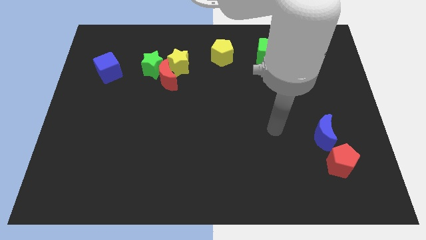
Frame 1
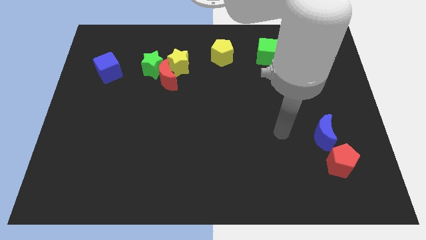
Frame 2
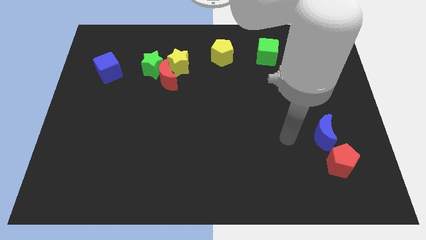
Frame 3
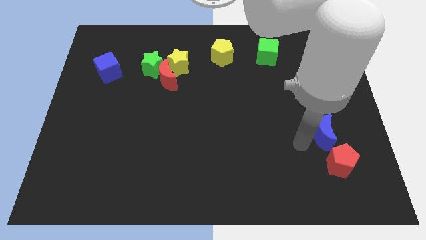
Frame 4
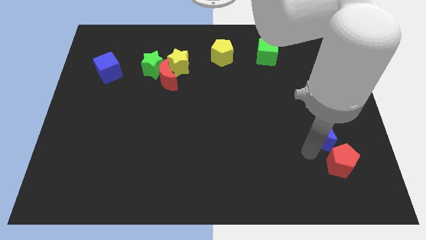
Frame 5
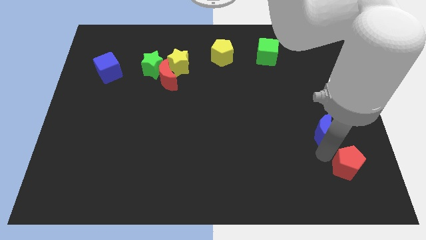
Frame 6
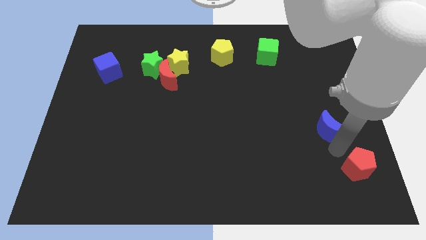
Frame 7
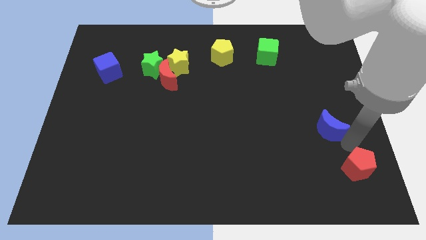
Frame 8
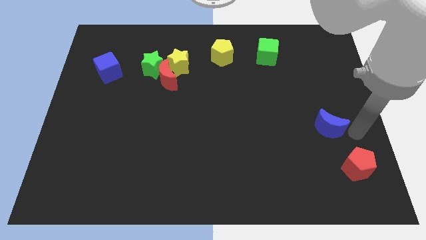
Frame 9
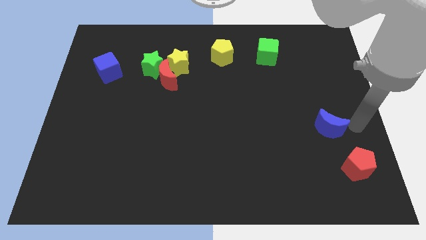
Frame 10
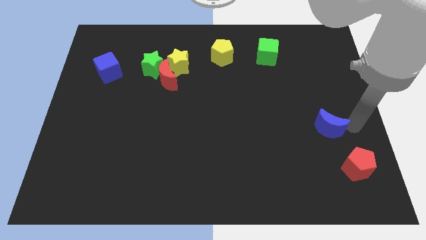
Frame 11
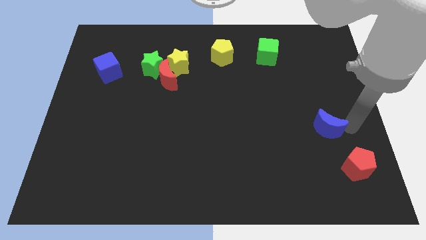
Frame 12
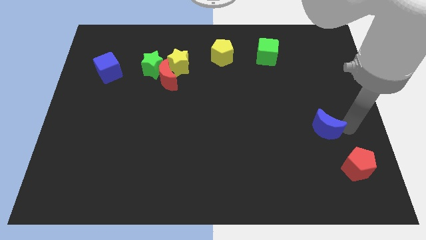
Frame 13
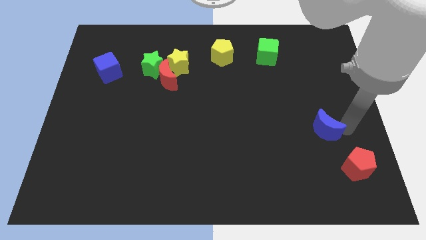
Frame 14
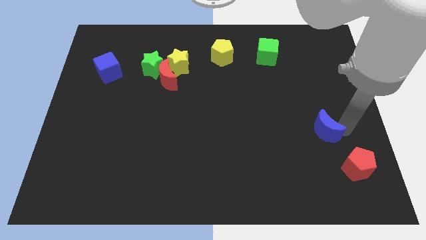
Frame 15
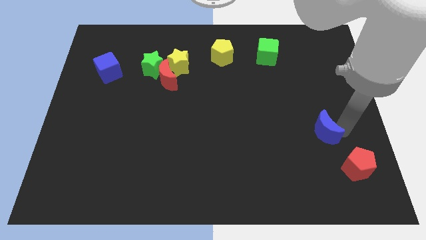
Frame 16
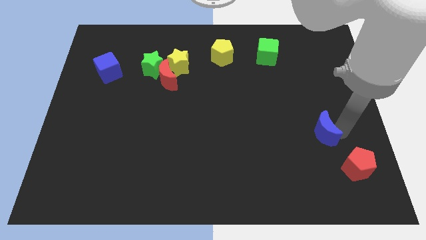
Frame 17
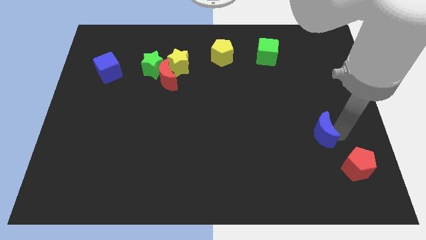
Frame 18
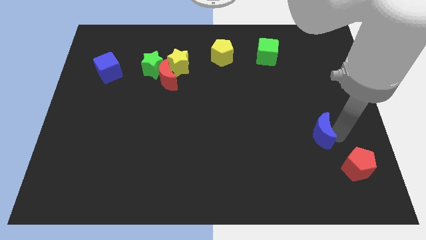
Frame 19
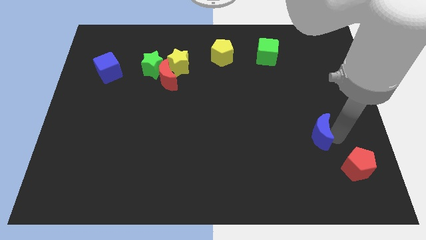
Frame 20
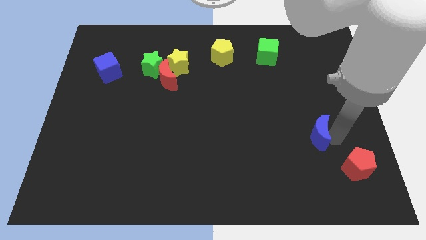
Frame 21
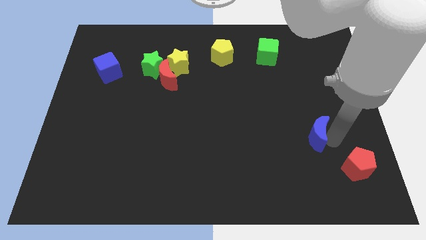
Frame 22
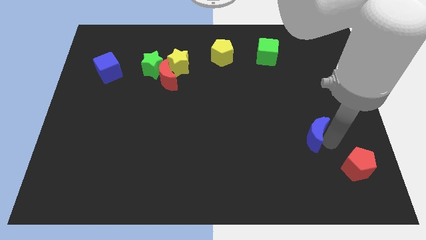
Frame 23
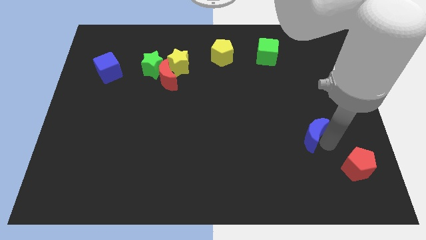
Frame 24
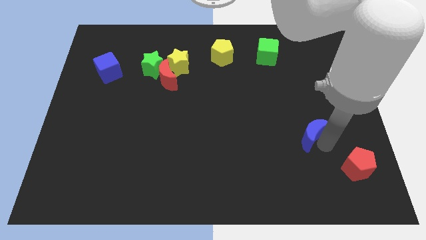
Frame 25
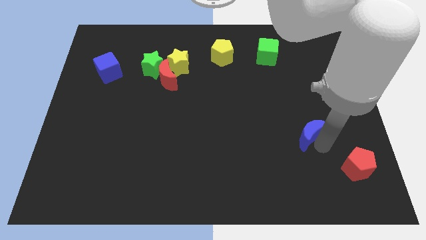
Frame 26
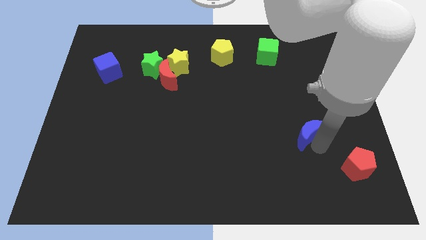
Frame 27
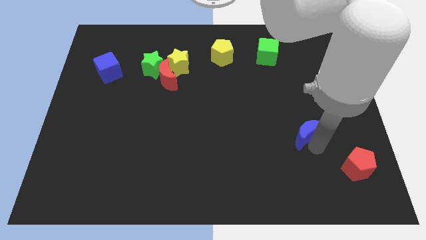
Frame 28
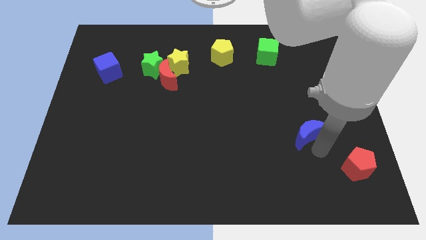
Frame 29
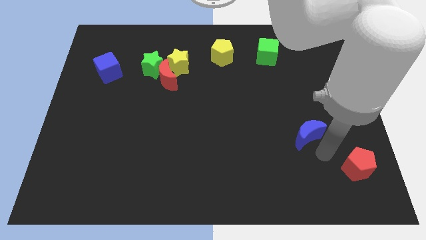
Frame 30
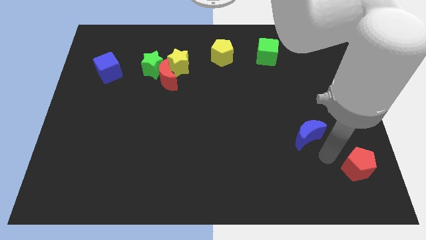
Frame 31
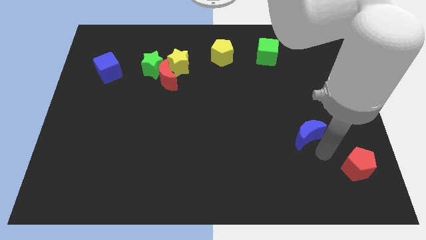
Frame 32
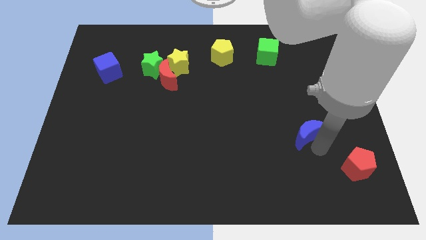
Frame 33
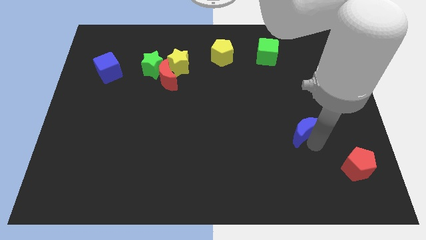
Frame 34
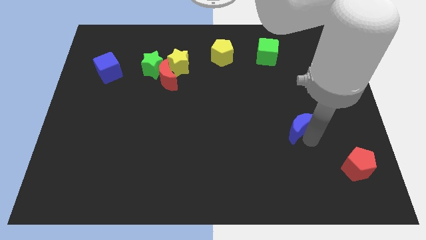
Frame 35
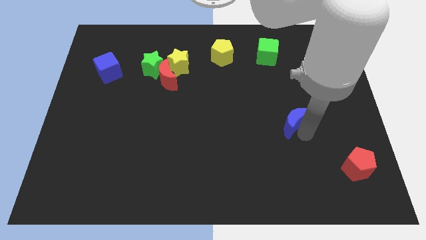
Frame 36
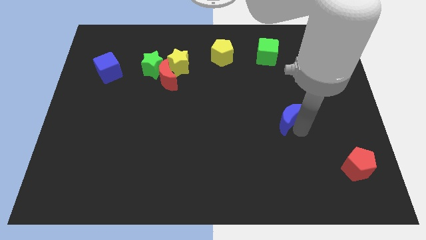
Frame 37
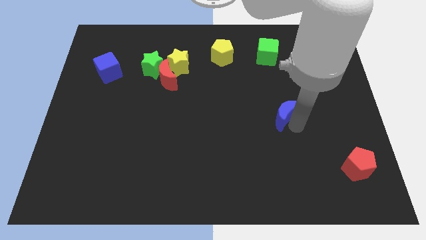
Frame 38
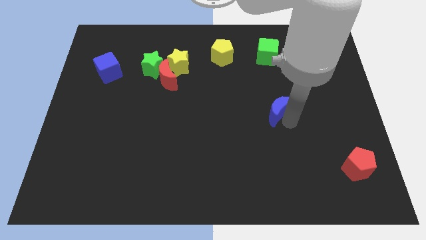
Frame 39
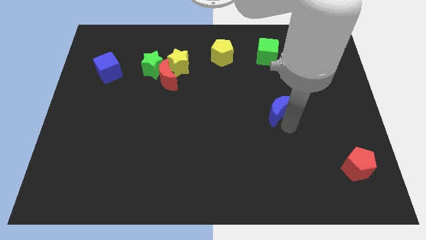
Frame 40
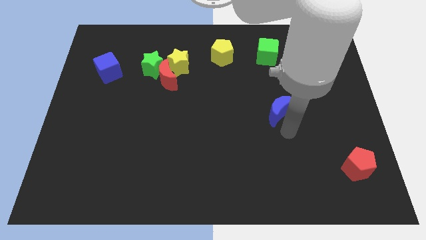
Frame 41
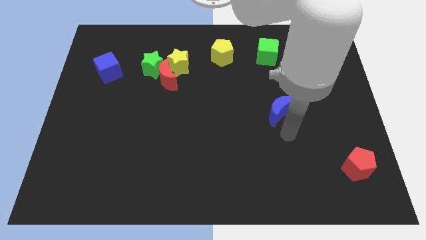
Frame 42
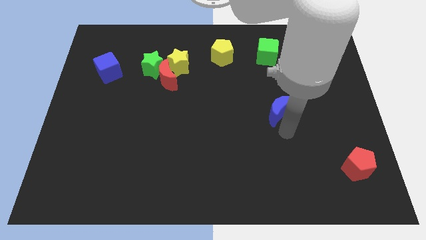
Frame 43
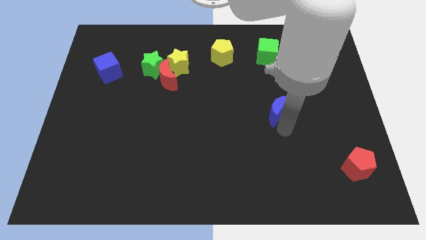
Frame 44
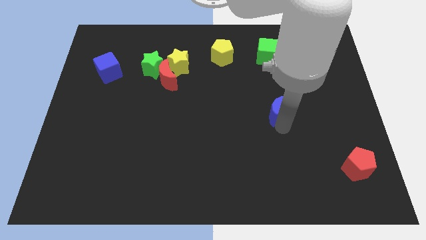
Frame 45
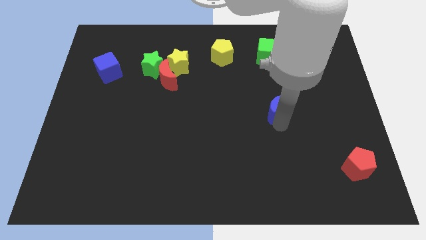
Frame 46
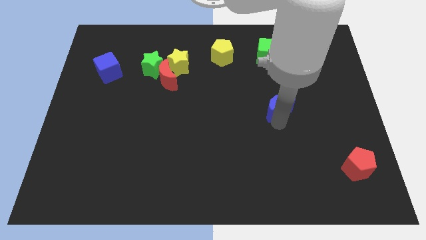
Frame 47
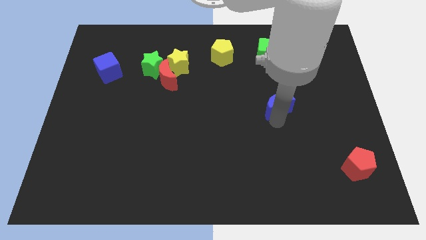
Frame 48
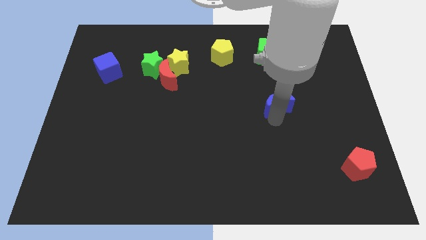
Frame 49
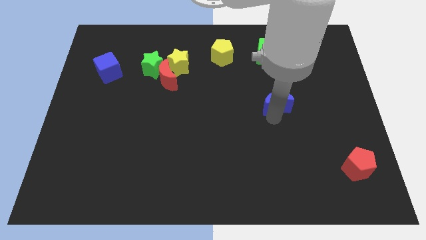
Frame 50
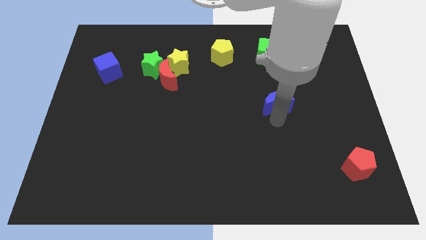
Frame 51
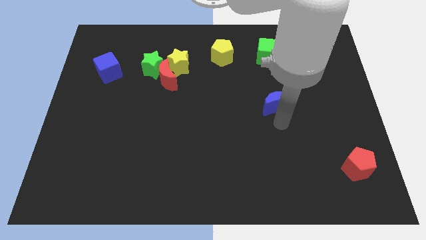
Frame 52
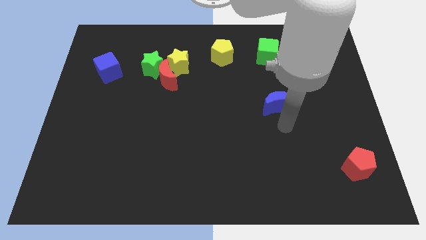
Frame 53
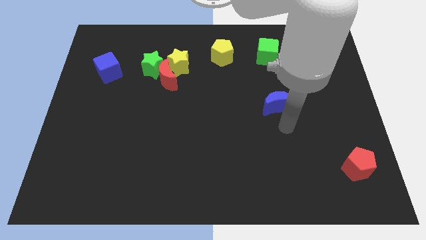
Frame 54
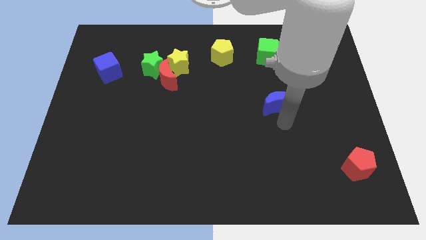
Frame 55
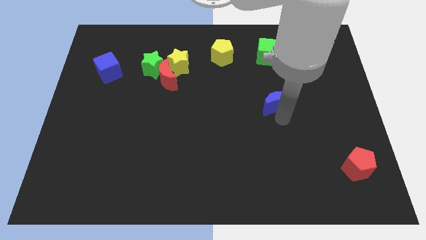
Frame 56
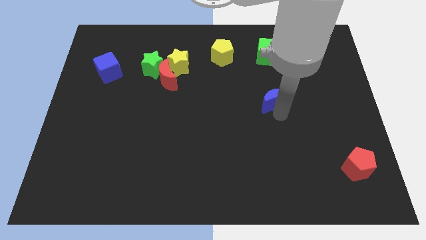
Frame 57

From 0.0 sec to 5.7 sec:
put the blue moon to the bottom of the green cube
